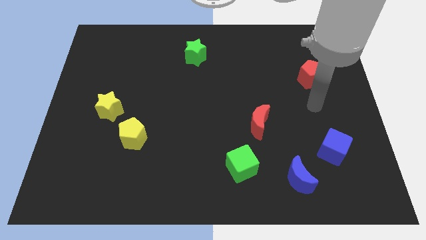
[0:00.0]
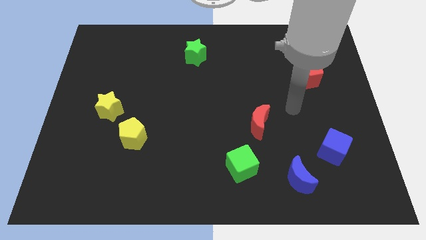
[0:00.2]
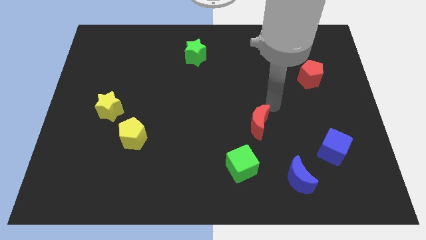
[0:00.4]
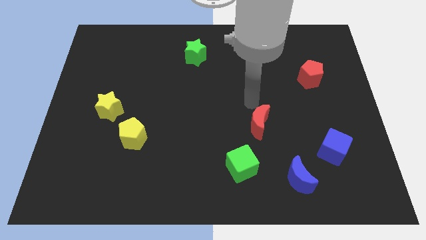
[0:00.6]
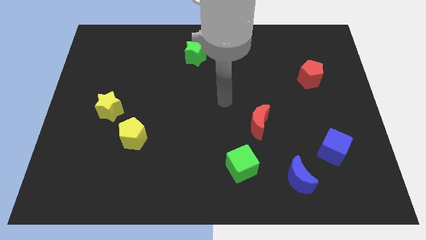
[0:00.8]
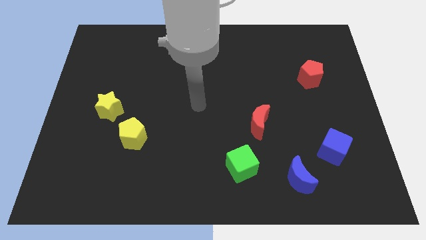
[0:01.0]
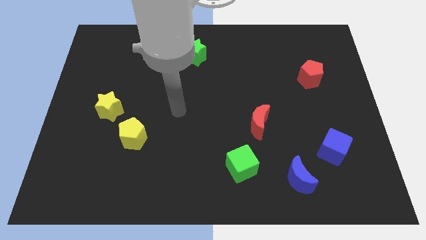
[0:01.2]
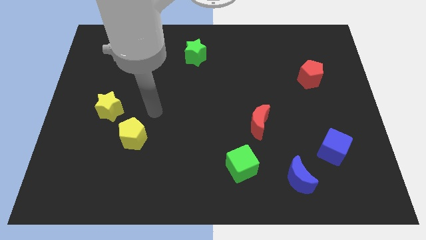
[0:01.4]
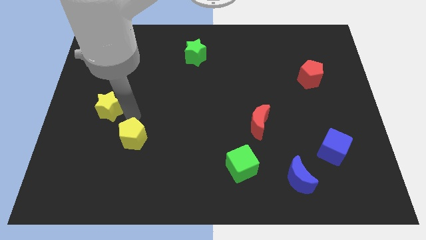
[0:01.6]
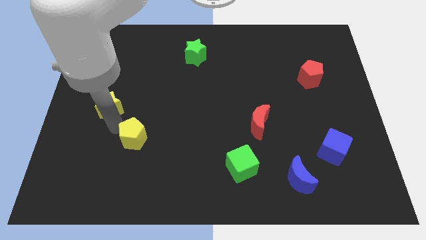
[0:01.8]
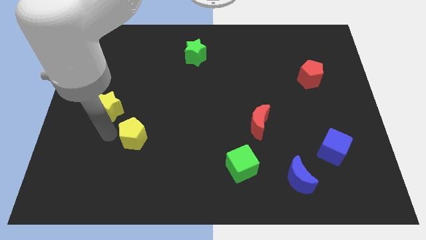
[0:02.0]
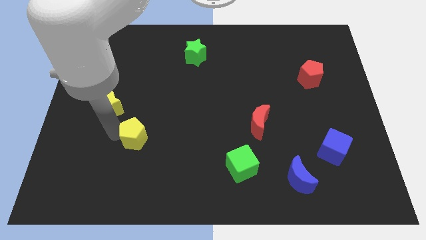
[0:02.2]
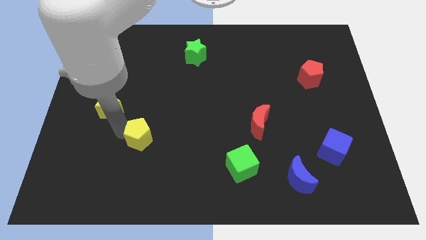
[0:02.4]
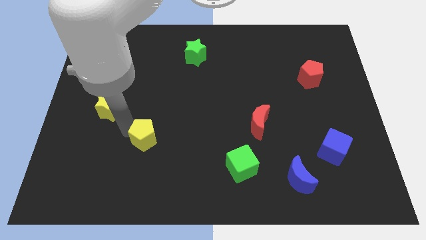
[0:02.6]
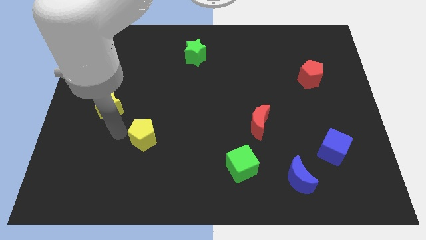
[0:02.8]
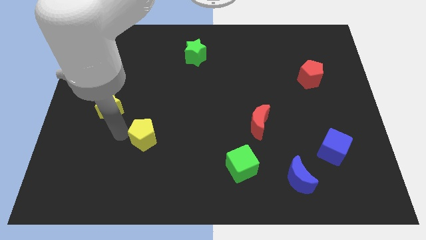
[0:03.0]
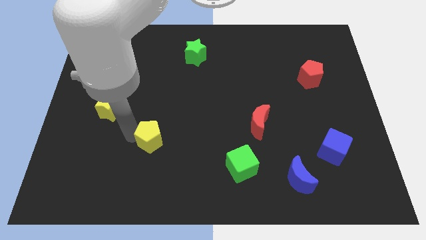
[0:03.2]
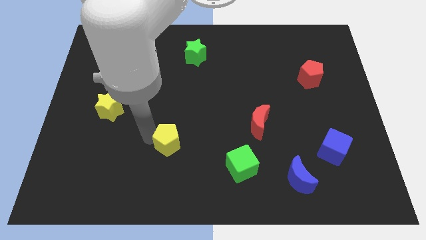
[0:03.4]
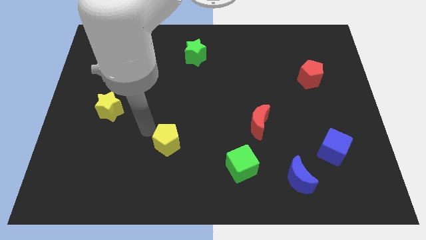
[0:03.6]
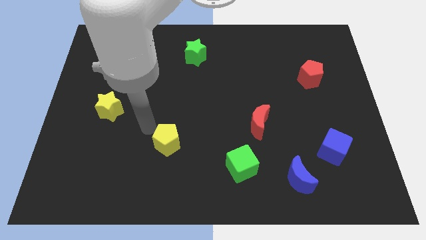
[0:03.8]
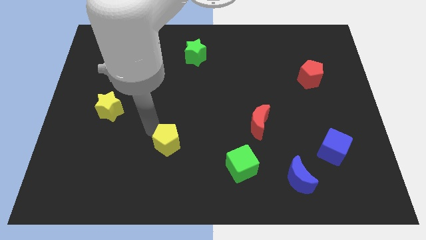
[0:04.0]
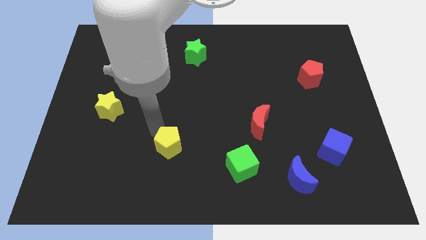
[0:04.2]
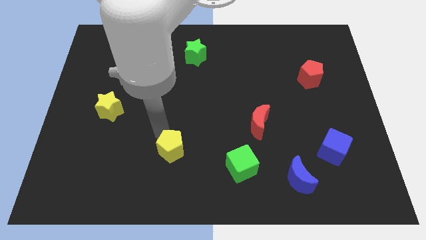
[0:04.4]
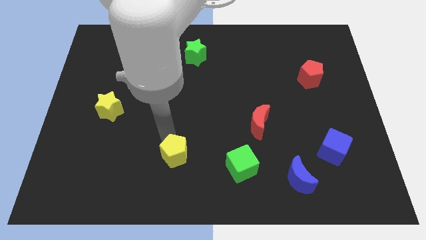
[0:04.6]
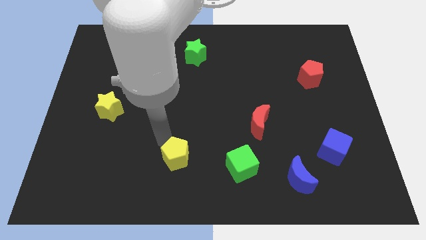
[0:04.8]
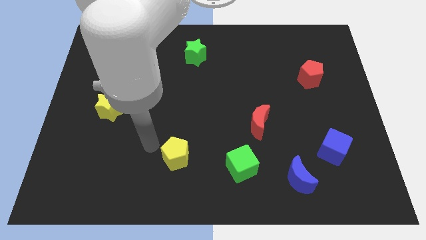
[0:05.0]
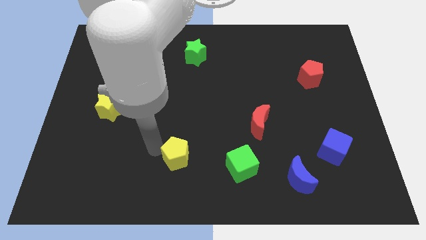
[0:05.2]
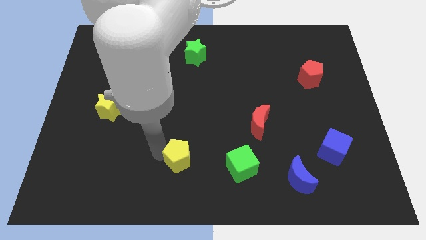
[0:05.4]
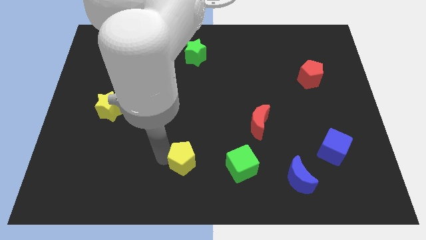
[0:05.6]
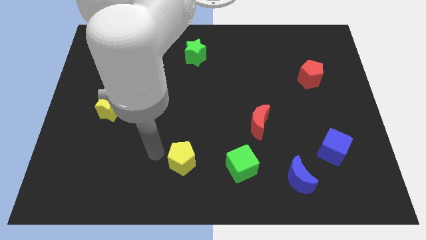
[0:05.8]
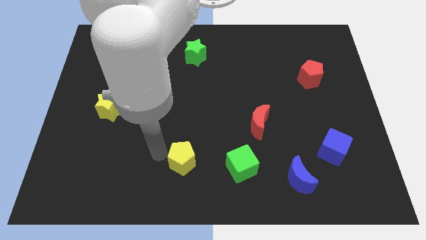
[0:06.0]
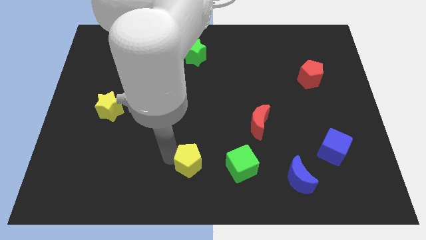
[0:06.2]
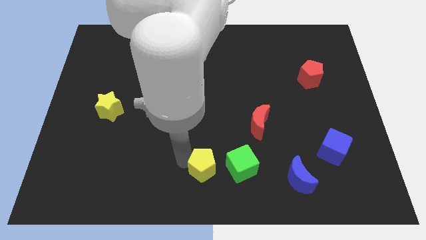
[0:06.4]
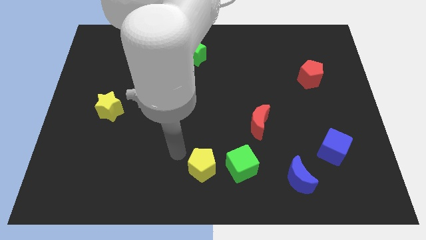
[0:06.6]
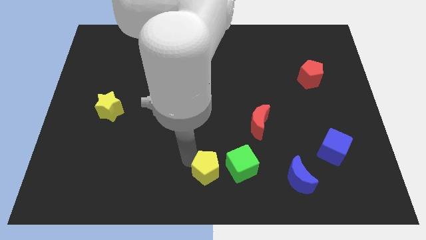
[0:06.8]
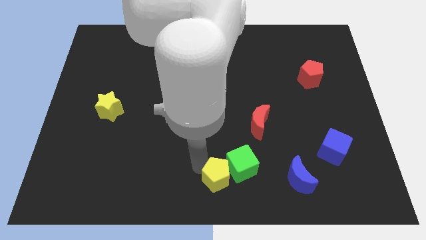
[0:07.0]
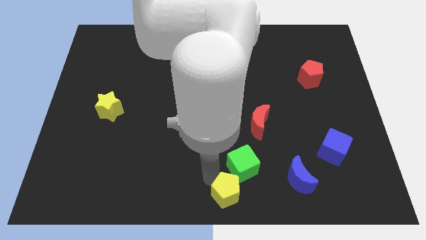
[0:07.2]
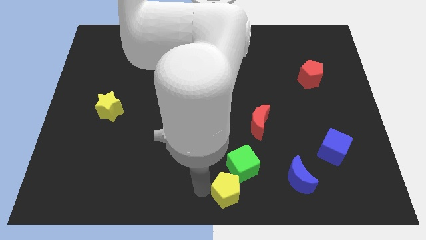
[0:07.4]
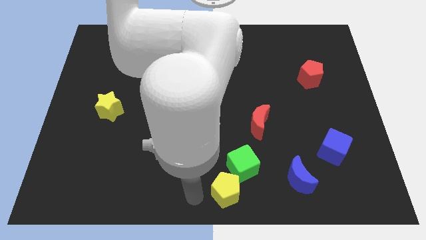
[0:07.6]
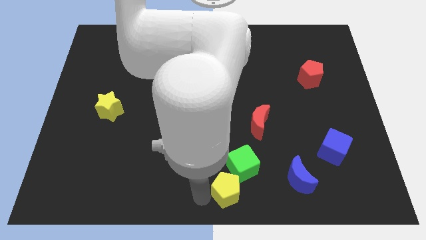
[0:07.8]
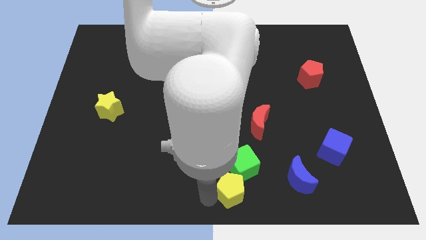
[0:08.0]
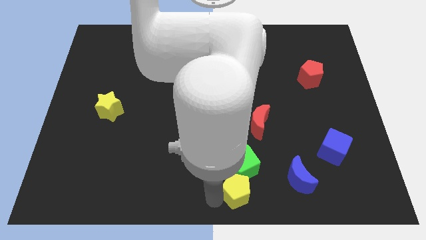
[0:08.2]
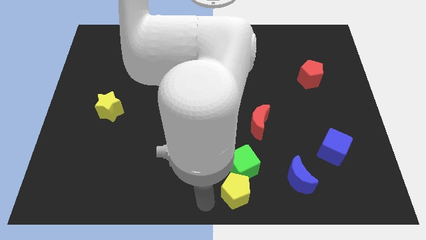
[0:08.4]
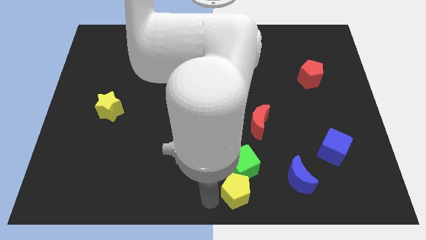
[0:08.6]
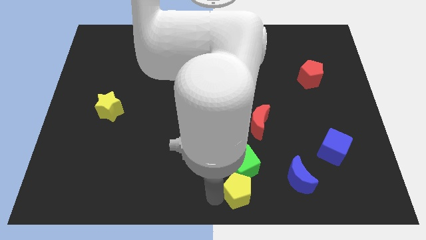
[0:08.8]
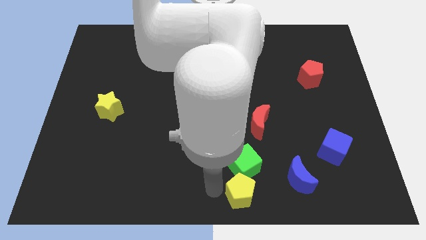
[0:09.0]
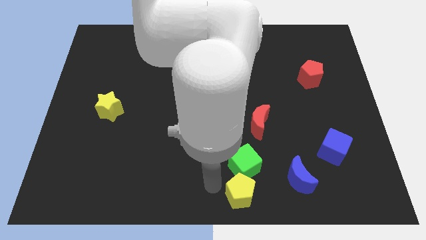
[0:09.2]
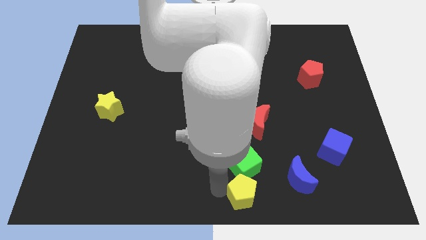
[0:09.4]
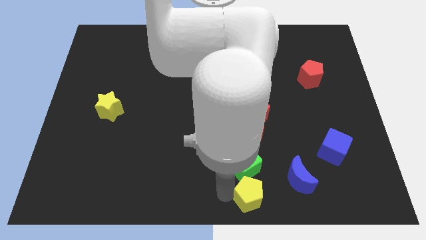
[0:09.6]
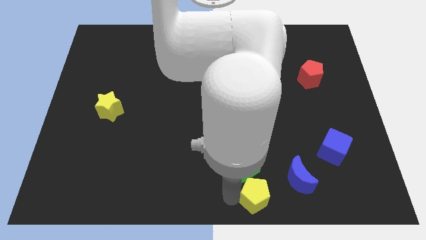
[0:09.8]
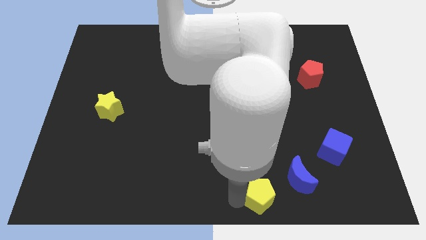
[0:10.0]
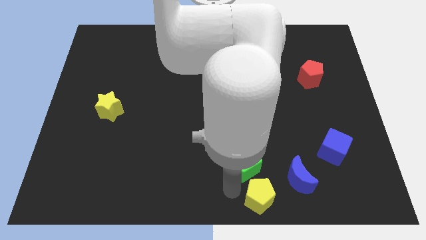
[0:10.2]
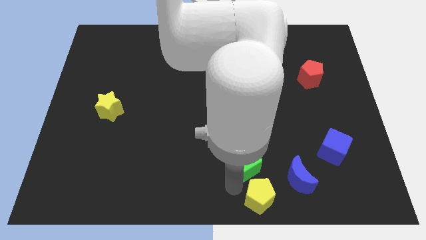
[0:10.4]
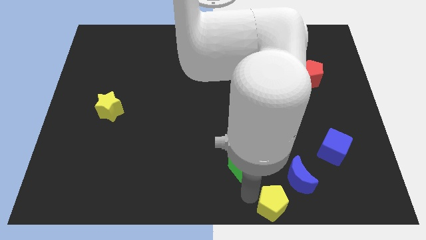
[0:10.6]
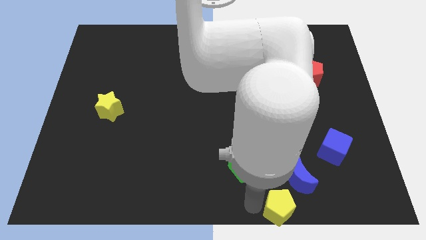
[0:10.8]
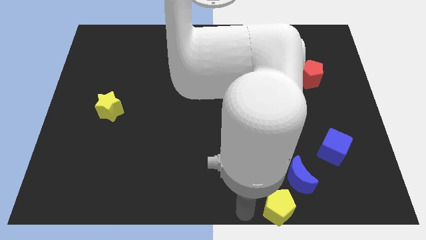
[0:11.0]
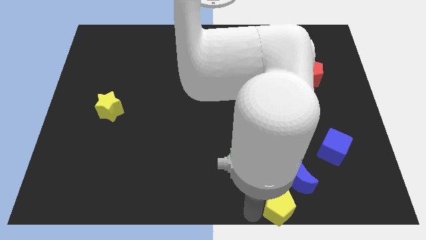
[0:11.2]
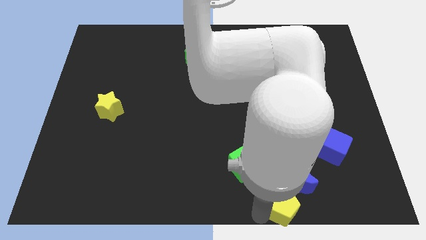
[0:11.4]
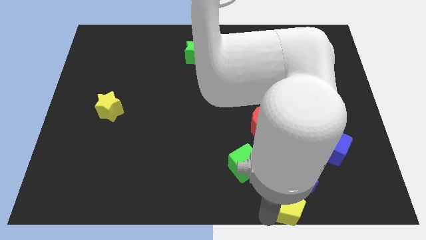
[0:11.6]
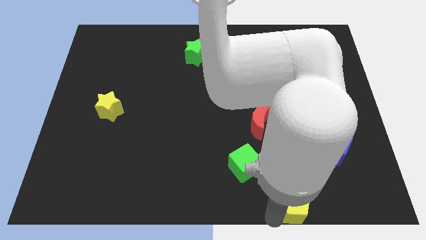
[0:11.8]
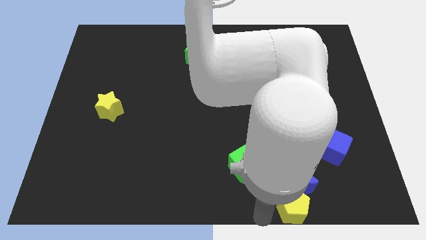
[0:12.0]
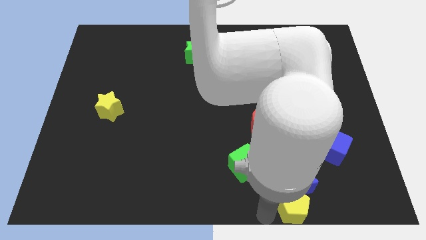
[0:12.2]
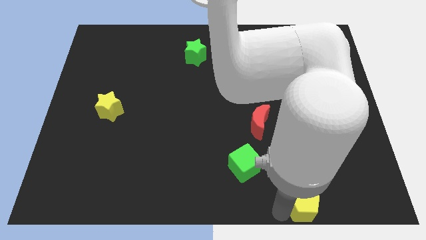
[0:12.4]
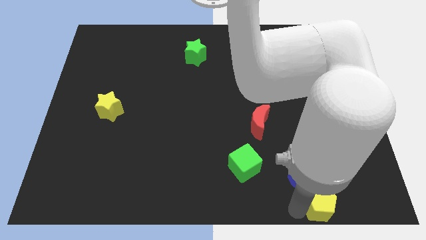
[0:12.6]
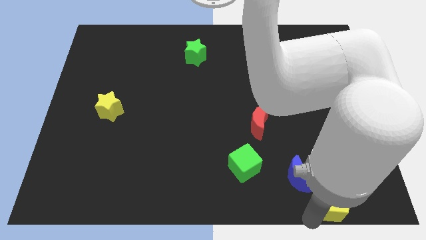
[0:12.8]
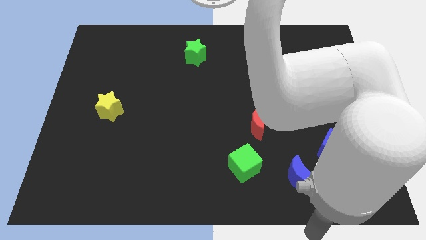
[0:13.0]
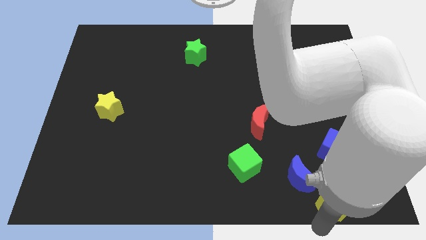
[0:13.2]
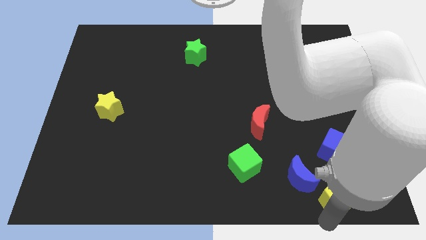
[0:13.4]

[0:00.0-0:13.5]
slide the yellow pentagon to the right of the blue moon

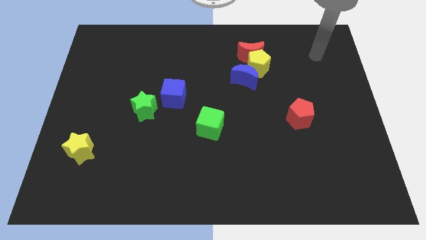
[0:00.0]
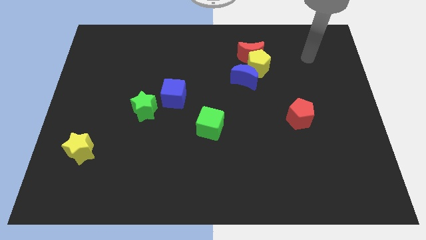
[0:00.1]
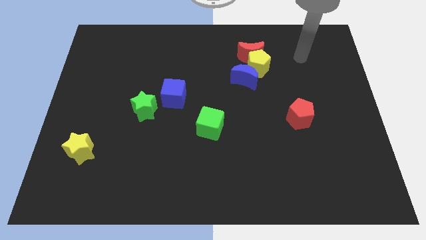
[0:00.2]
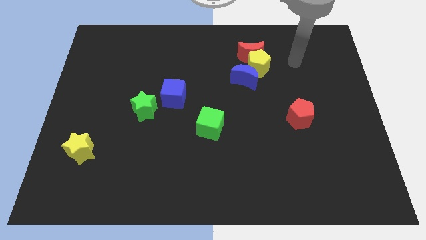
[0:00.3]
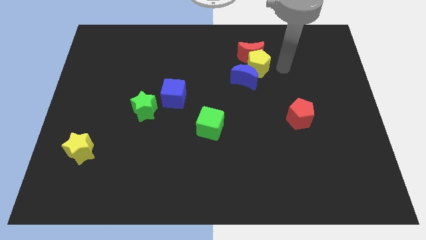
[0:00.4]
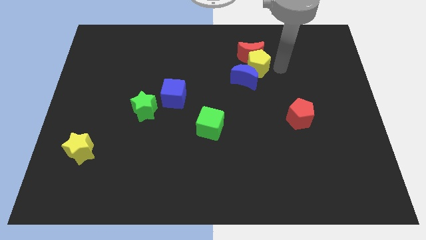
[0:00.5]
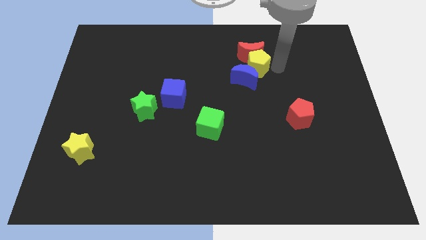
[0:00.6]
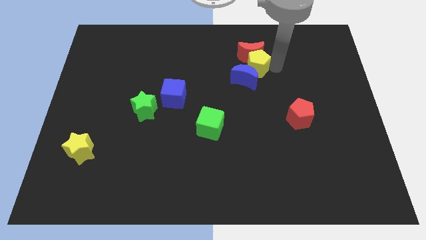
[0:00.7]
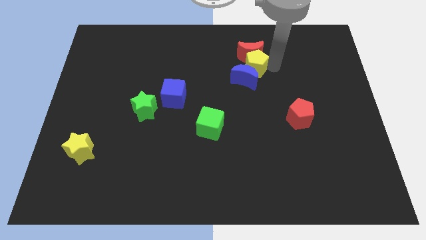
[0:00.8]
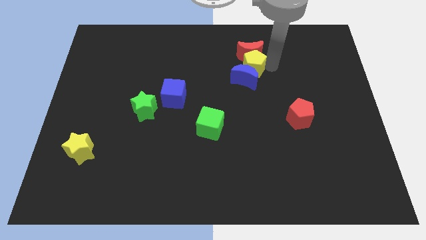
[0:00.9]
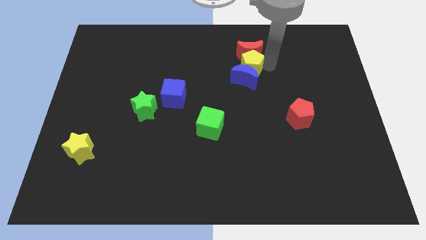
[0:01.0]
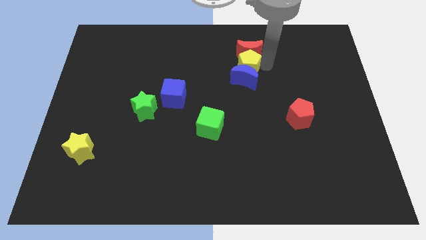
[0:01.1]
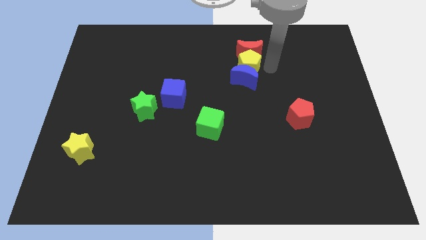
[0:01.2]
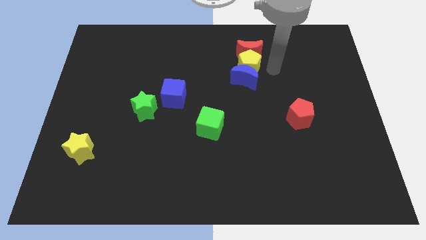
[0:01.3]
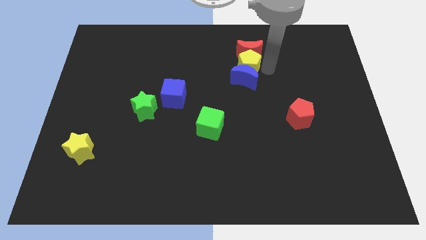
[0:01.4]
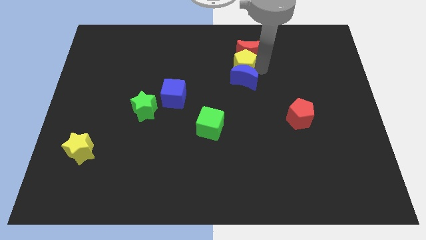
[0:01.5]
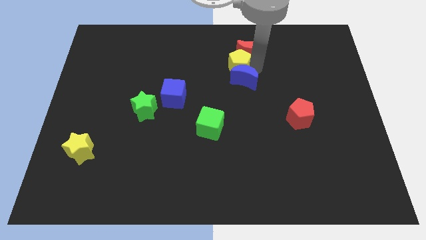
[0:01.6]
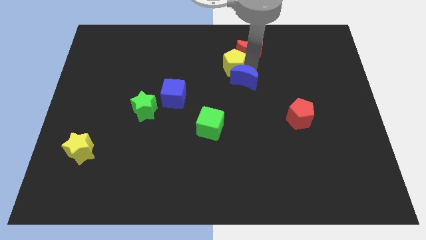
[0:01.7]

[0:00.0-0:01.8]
put the yellow pentagon to the left of the red moon
